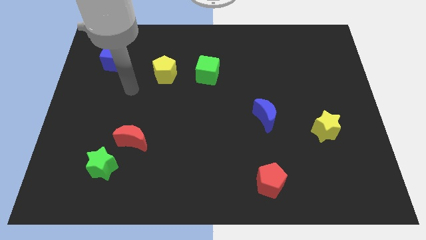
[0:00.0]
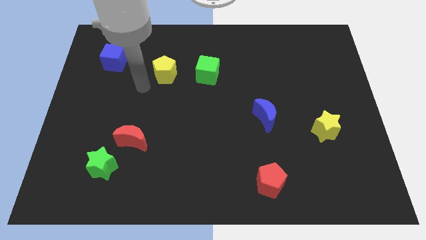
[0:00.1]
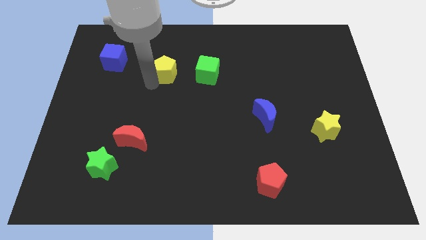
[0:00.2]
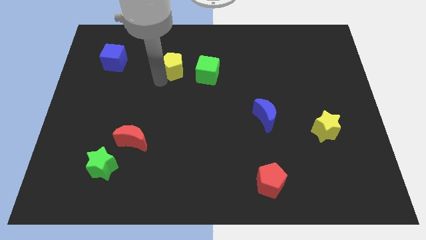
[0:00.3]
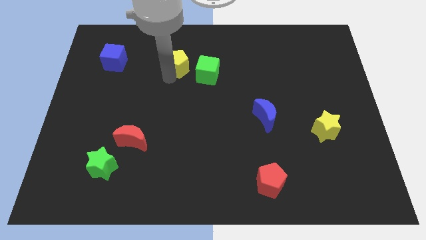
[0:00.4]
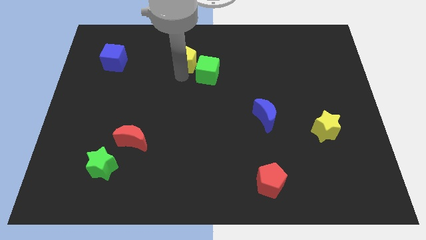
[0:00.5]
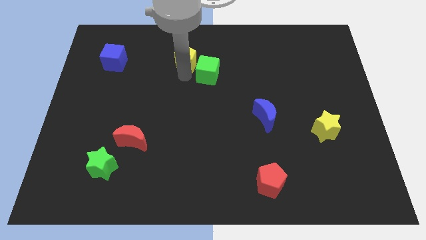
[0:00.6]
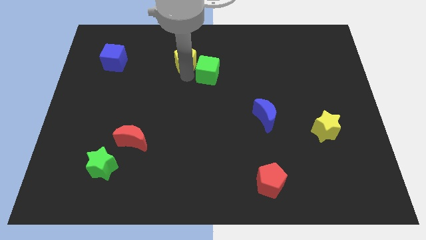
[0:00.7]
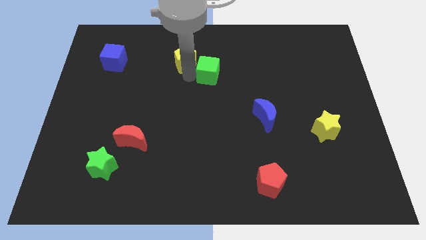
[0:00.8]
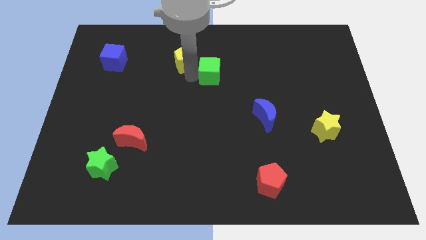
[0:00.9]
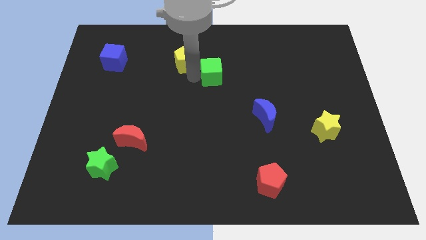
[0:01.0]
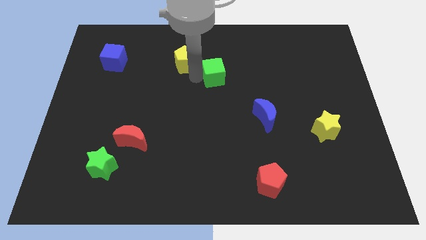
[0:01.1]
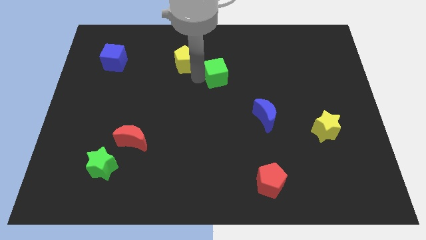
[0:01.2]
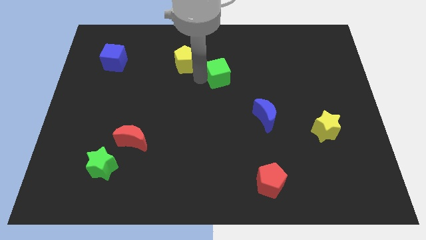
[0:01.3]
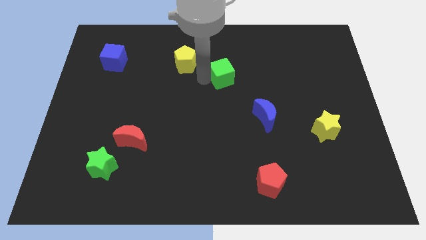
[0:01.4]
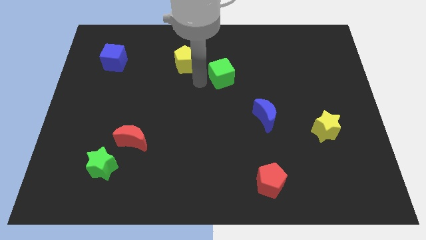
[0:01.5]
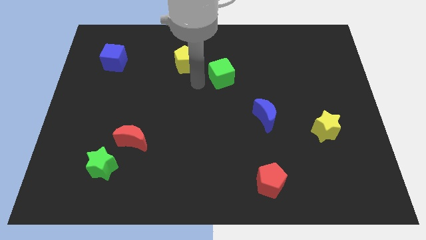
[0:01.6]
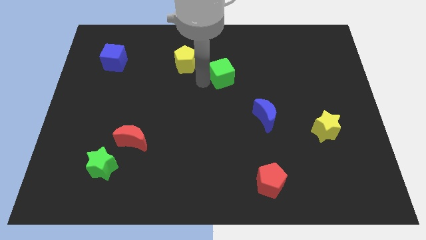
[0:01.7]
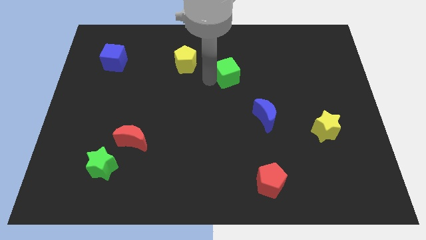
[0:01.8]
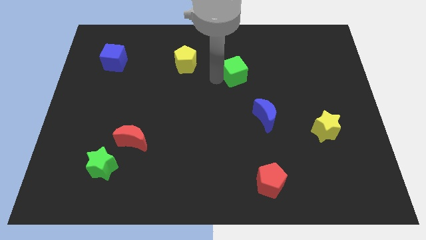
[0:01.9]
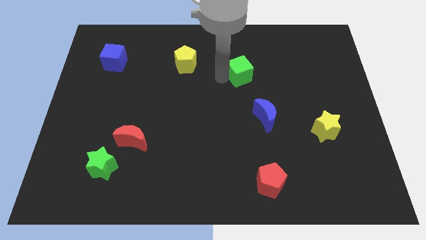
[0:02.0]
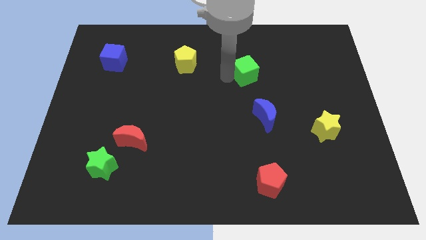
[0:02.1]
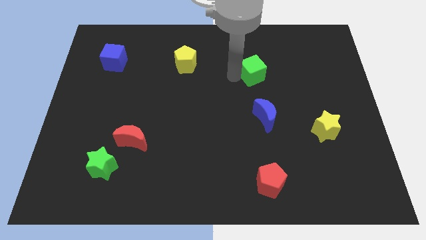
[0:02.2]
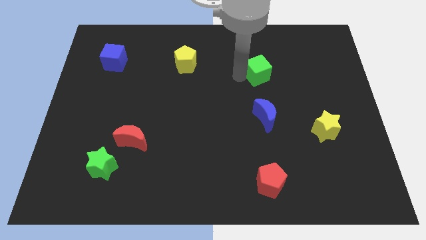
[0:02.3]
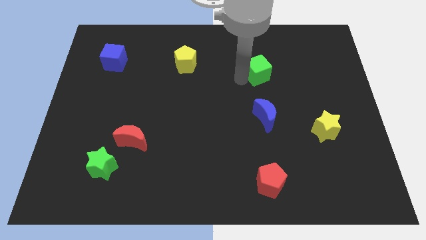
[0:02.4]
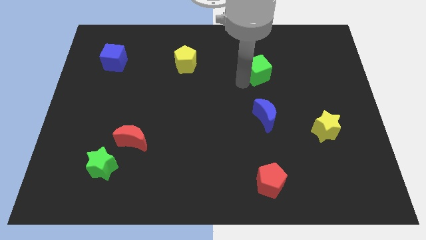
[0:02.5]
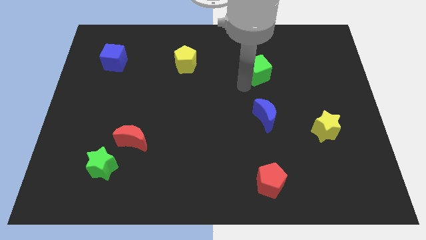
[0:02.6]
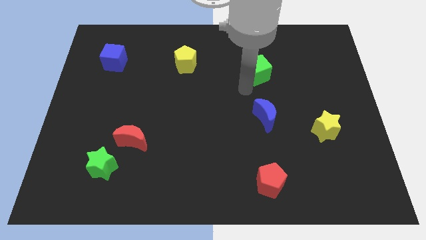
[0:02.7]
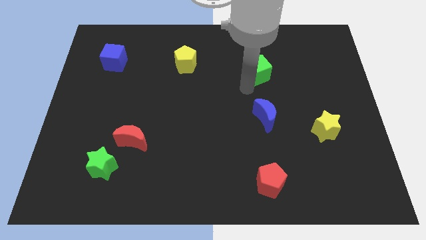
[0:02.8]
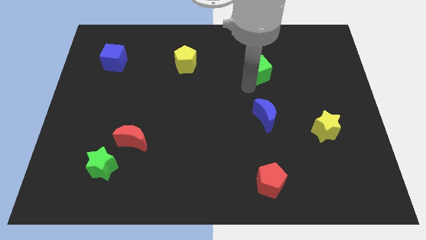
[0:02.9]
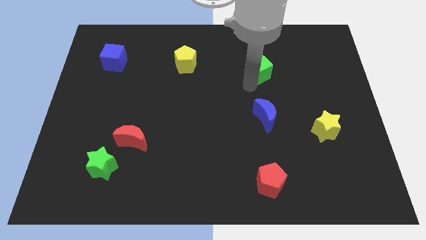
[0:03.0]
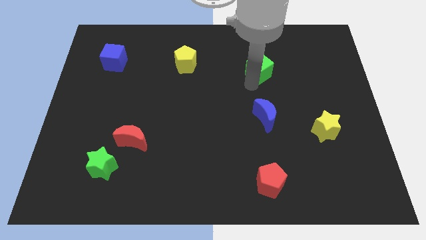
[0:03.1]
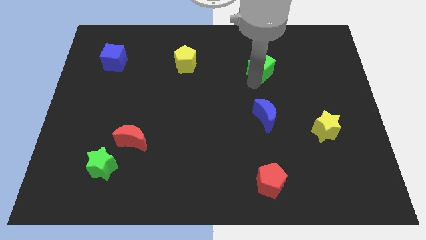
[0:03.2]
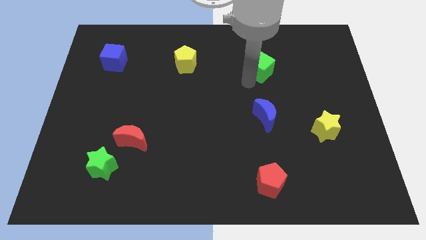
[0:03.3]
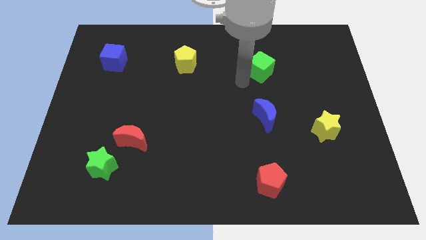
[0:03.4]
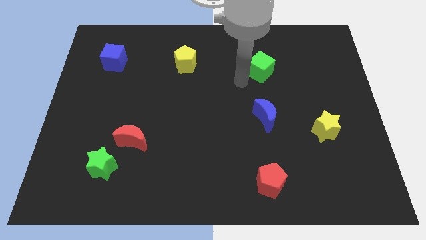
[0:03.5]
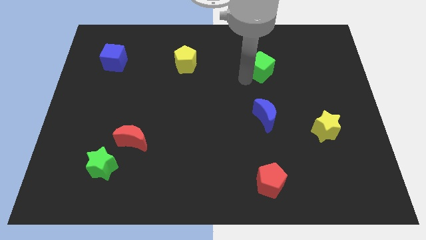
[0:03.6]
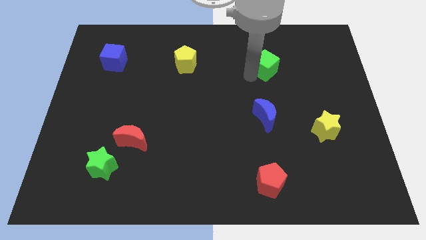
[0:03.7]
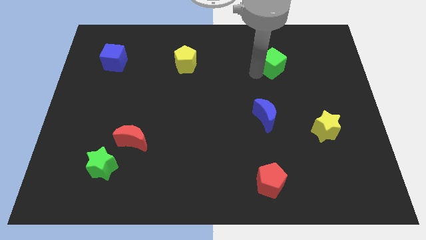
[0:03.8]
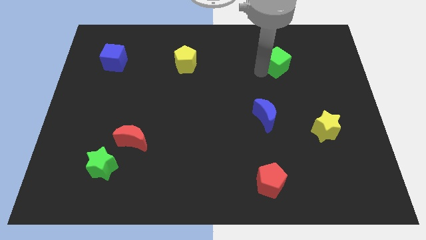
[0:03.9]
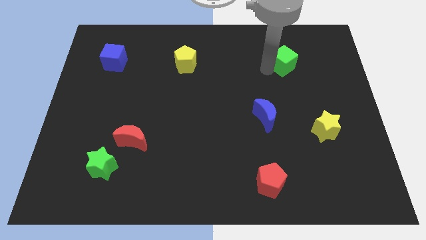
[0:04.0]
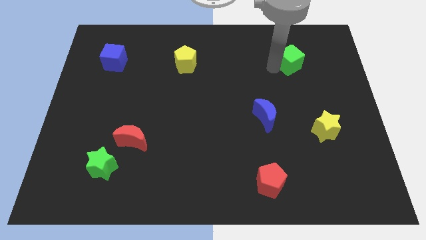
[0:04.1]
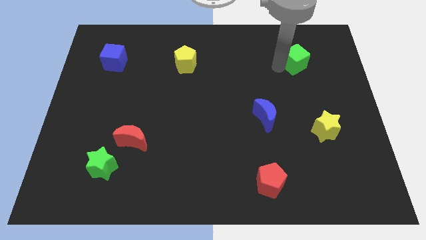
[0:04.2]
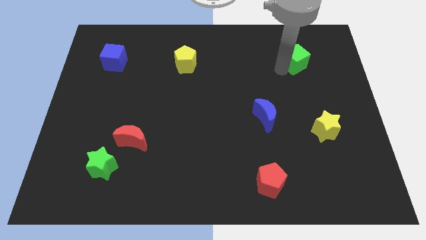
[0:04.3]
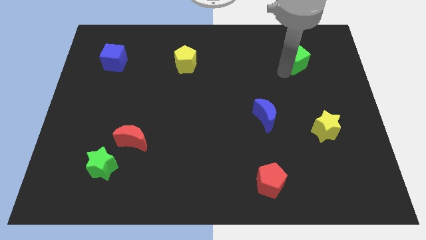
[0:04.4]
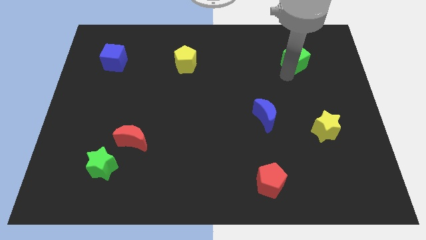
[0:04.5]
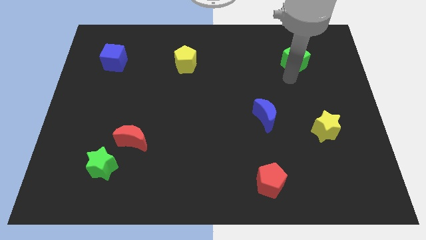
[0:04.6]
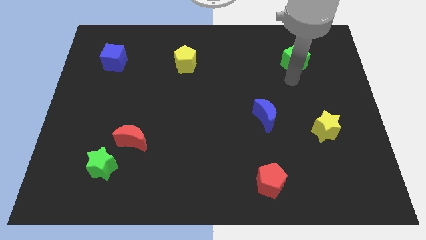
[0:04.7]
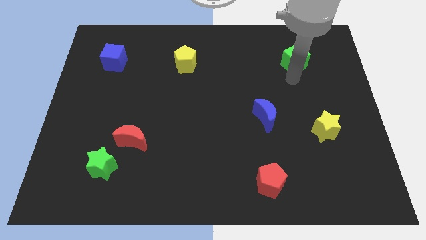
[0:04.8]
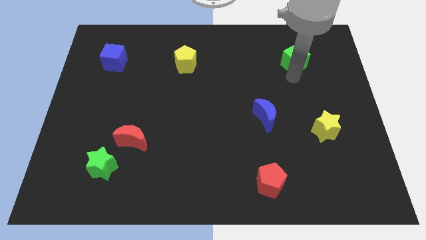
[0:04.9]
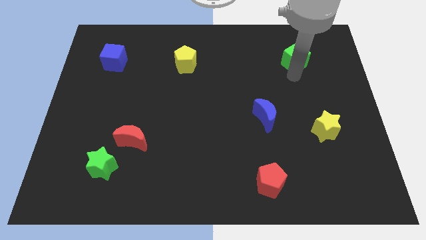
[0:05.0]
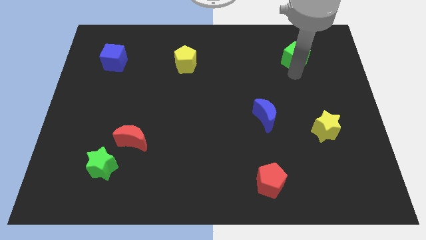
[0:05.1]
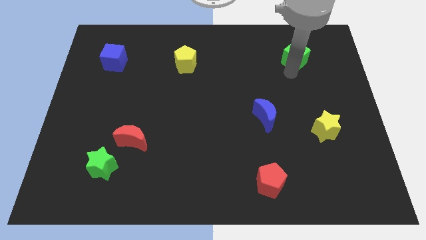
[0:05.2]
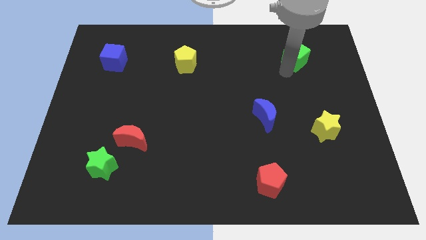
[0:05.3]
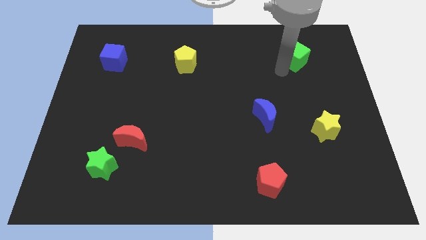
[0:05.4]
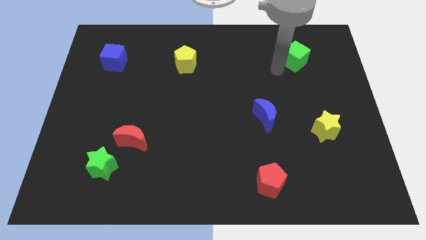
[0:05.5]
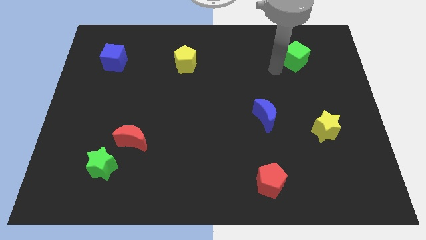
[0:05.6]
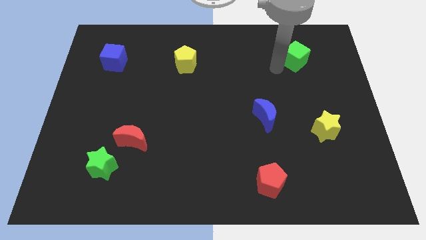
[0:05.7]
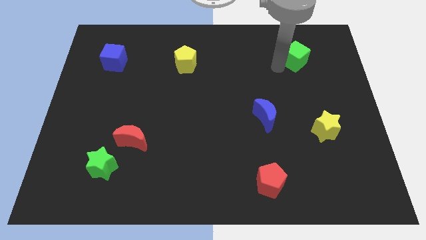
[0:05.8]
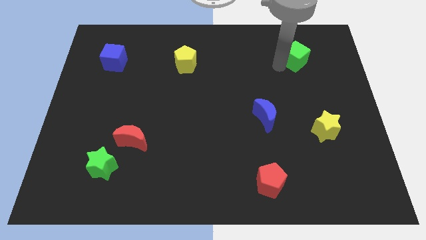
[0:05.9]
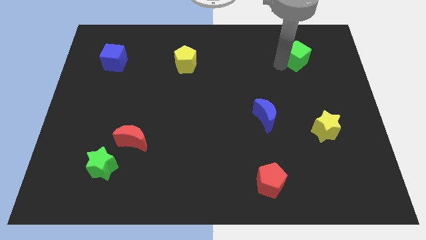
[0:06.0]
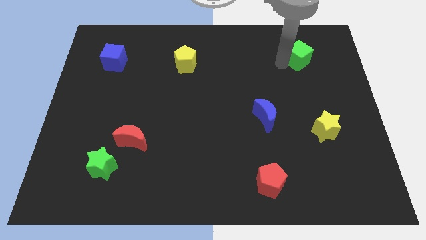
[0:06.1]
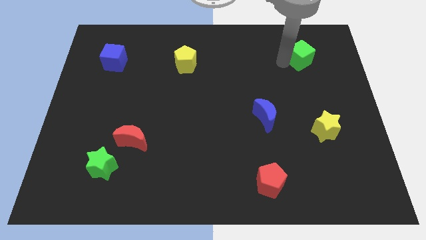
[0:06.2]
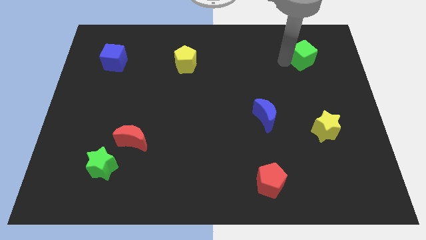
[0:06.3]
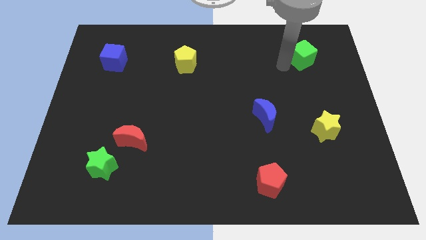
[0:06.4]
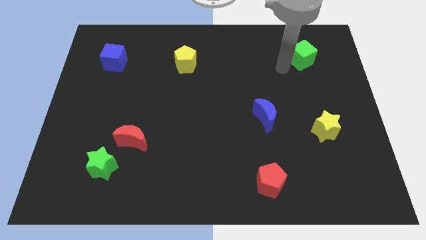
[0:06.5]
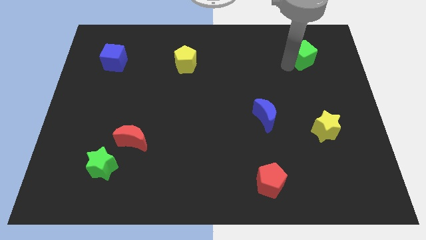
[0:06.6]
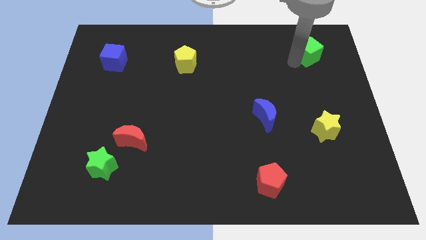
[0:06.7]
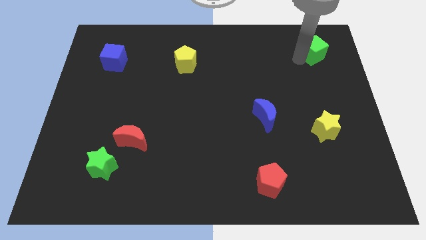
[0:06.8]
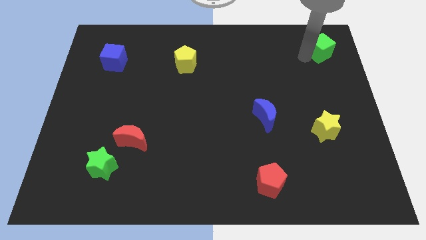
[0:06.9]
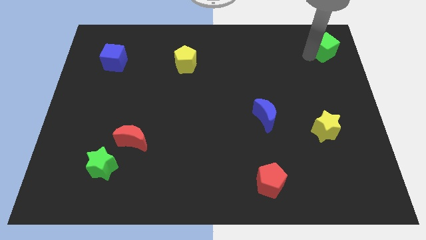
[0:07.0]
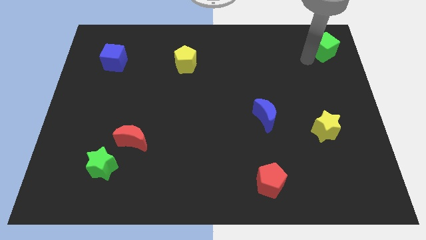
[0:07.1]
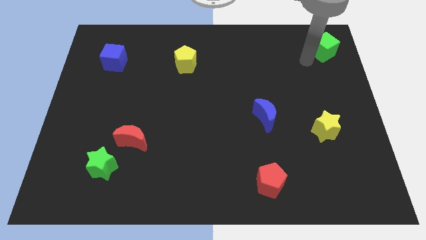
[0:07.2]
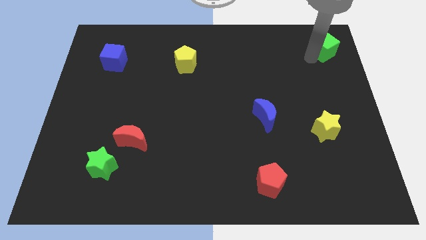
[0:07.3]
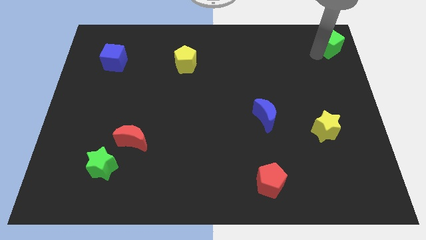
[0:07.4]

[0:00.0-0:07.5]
push the green cube to the top right corner
